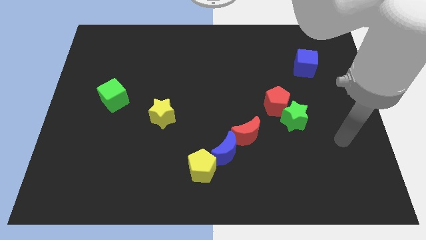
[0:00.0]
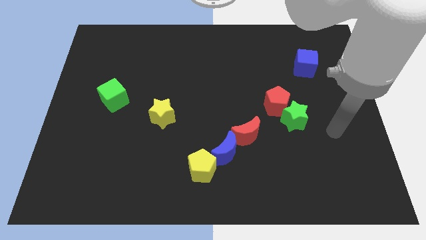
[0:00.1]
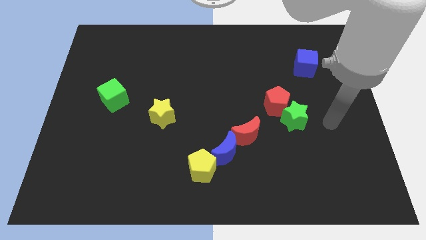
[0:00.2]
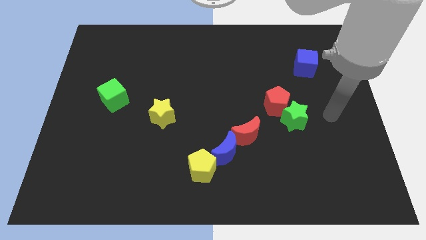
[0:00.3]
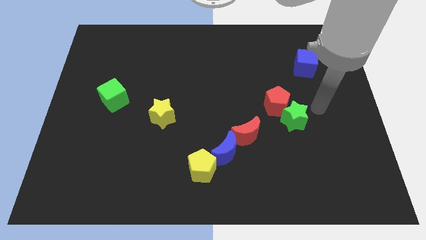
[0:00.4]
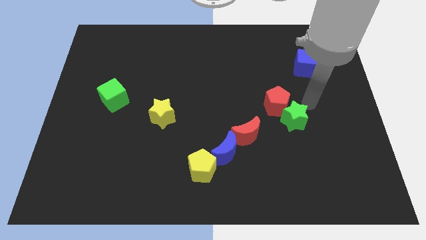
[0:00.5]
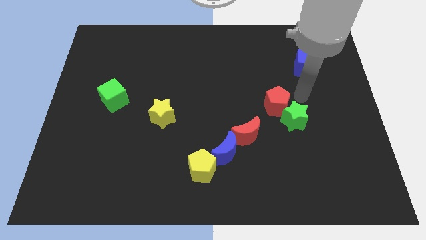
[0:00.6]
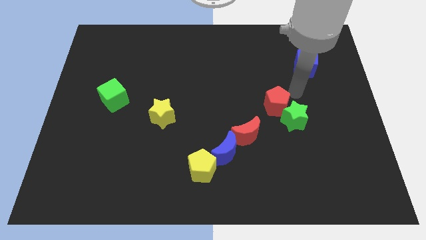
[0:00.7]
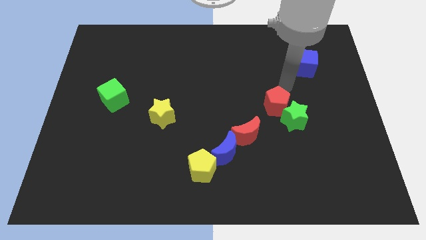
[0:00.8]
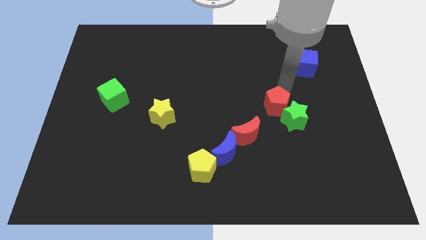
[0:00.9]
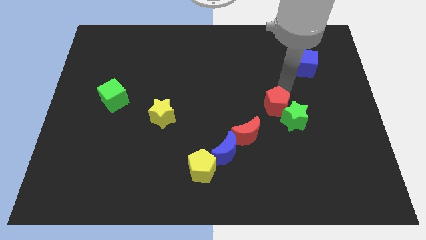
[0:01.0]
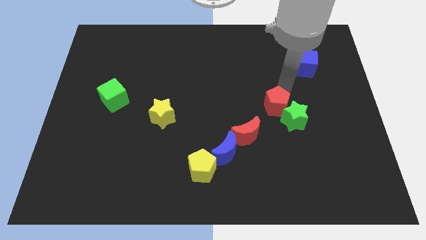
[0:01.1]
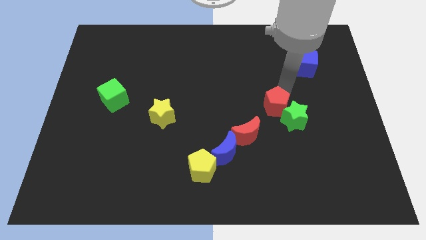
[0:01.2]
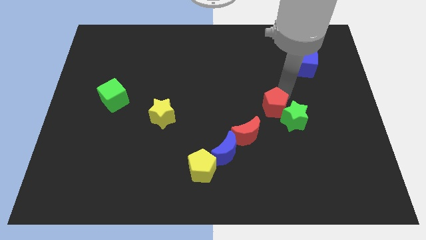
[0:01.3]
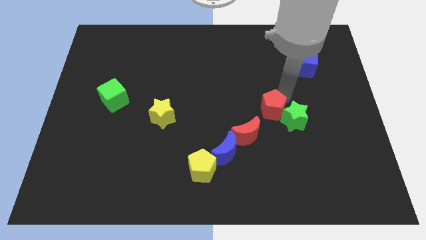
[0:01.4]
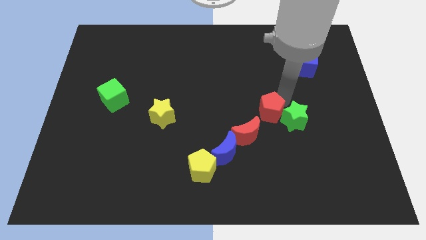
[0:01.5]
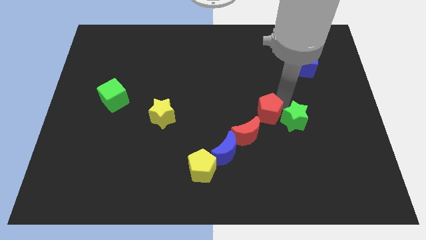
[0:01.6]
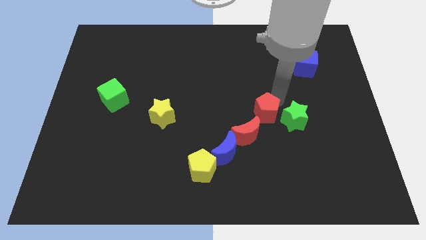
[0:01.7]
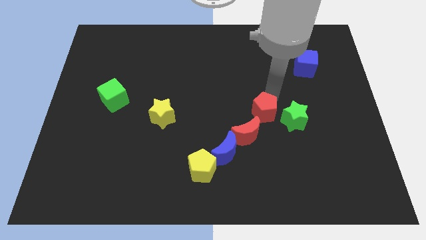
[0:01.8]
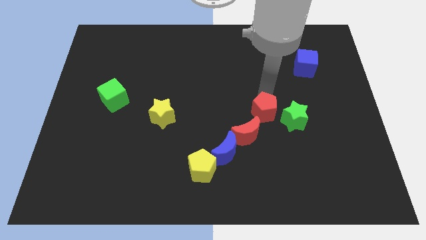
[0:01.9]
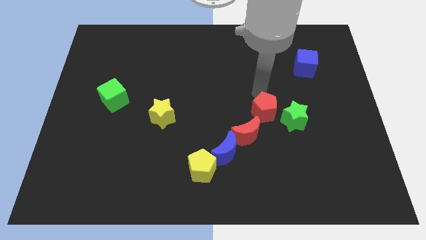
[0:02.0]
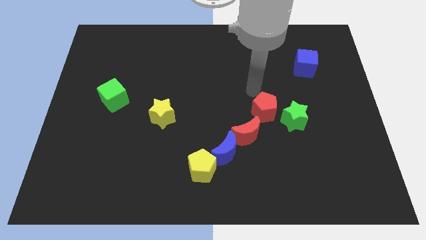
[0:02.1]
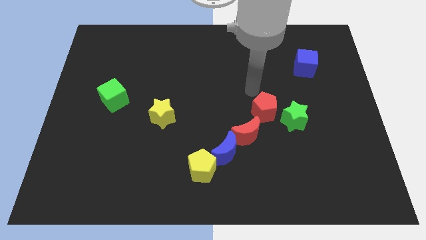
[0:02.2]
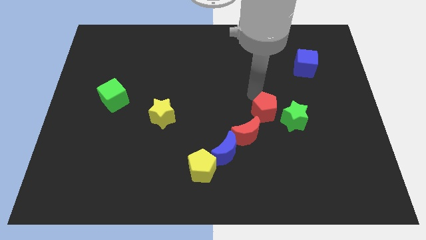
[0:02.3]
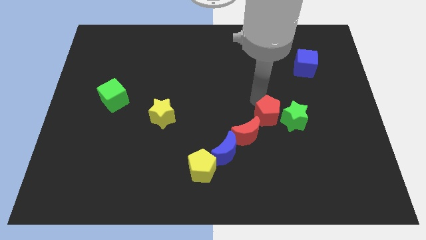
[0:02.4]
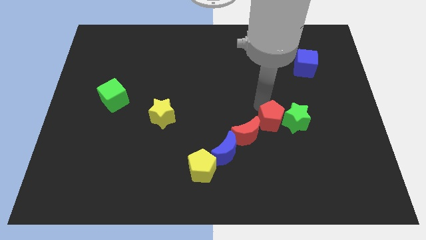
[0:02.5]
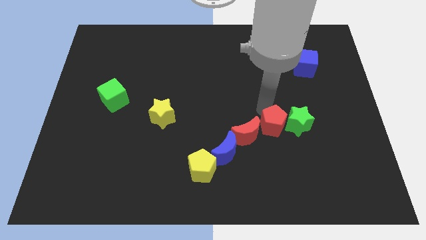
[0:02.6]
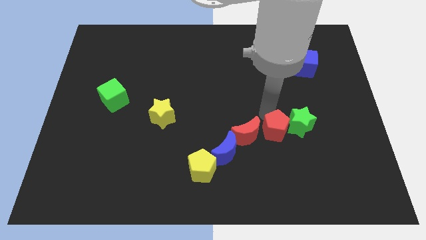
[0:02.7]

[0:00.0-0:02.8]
move the red pentagon a little bit downwards

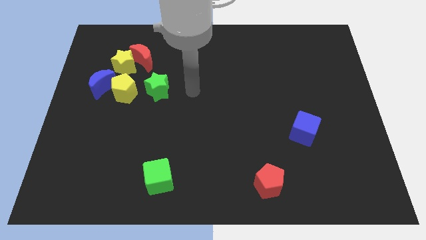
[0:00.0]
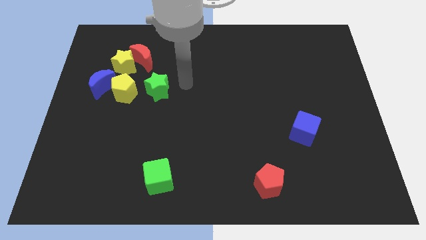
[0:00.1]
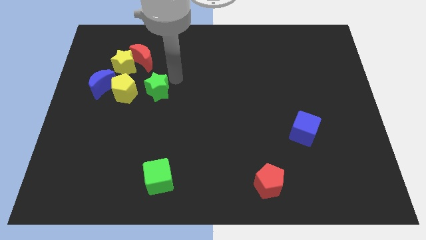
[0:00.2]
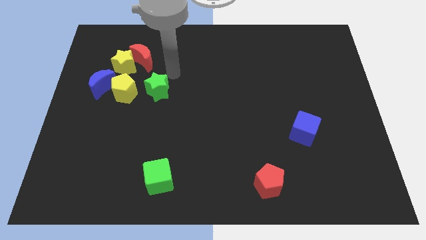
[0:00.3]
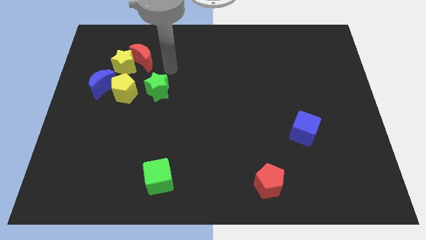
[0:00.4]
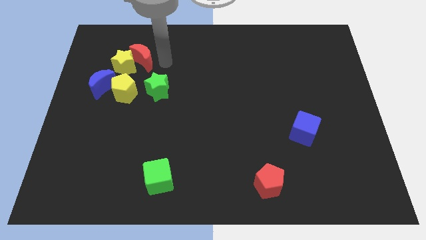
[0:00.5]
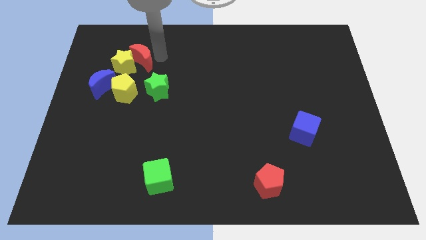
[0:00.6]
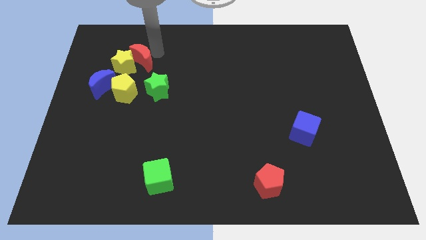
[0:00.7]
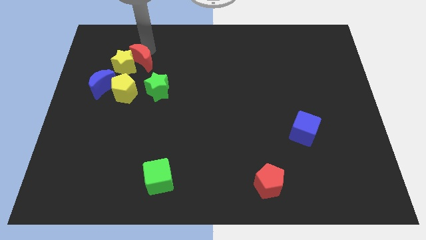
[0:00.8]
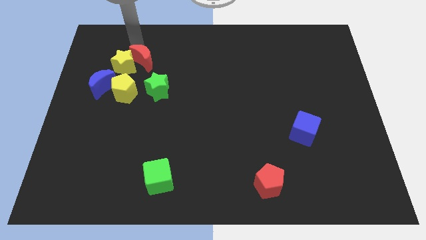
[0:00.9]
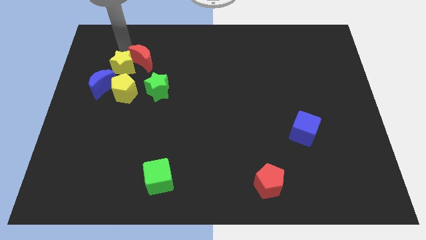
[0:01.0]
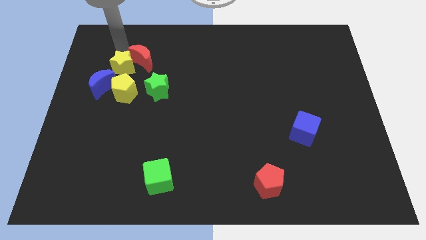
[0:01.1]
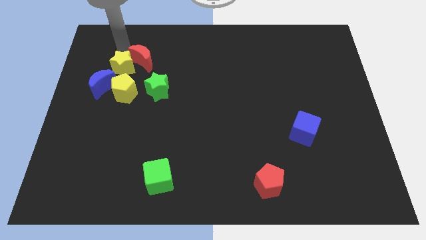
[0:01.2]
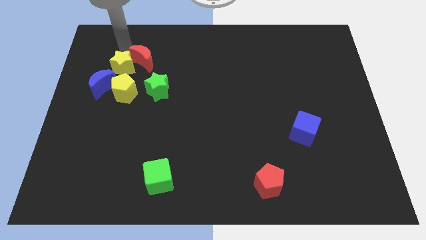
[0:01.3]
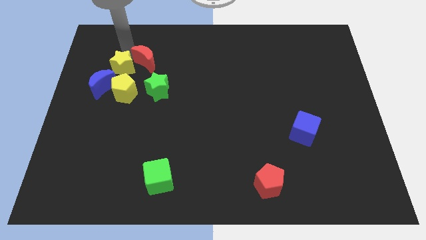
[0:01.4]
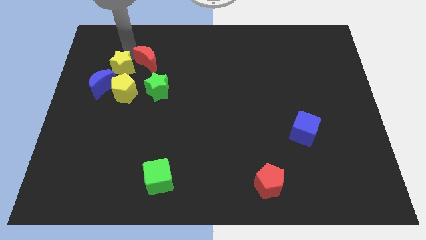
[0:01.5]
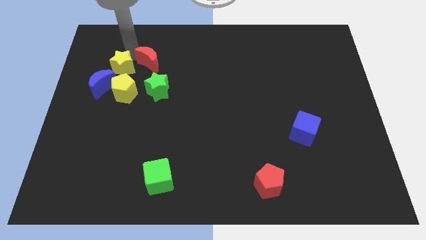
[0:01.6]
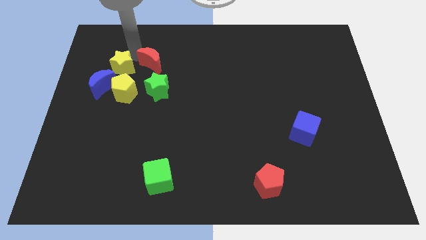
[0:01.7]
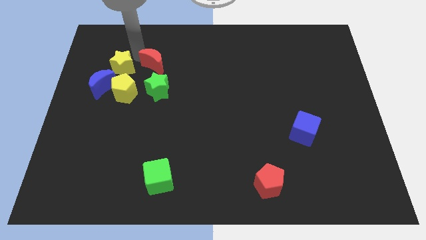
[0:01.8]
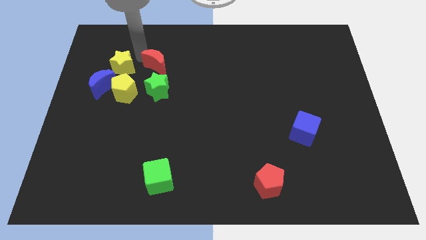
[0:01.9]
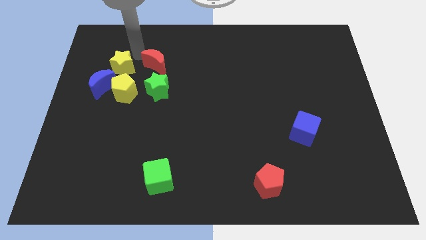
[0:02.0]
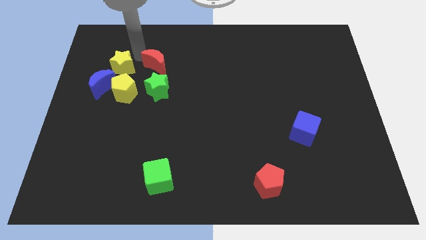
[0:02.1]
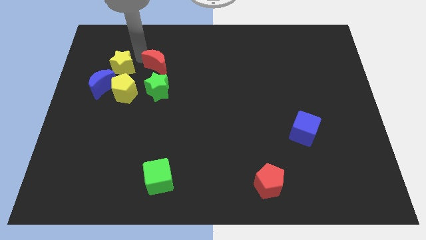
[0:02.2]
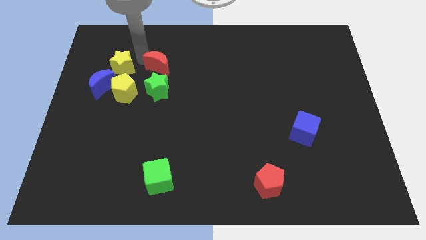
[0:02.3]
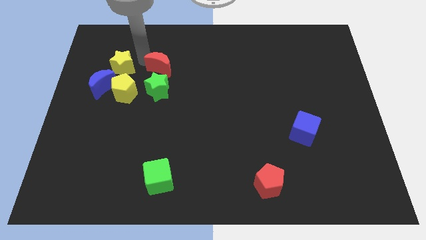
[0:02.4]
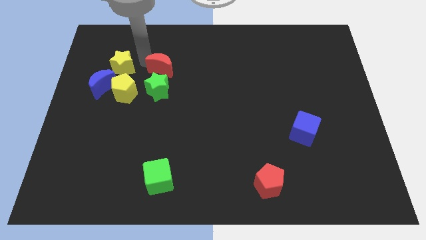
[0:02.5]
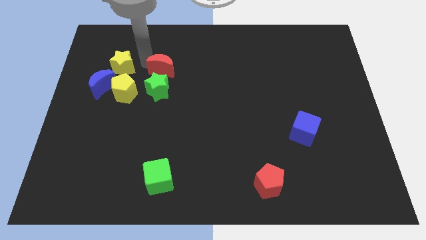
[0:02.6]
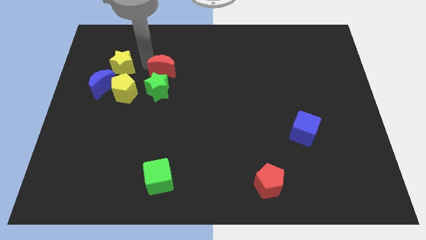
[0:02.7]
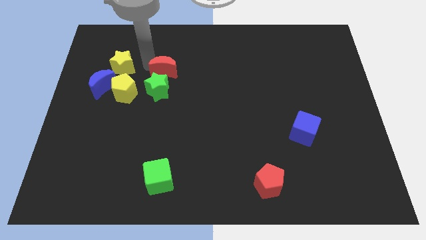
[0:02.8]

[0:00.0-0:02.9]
move the red moon slightly diagonally down and right

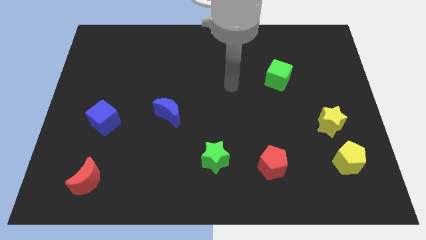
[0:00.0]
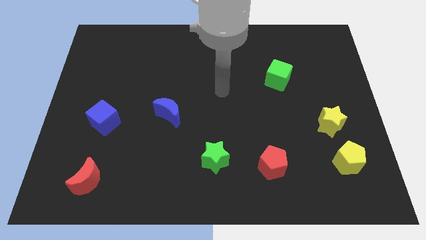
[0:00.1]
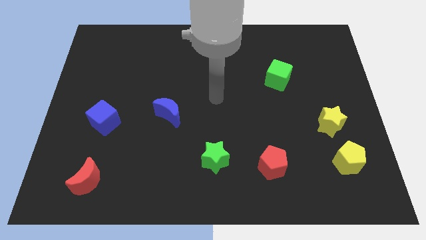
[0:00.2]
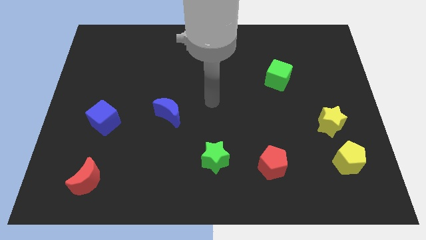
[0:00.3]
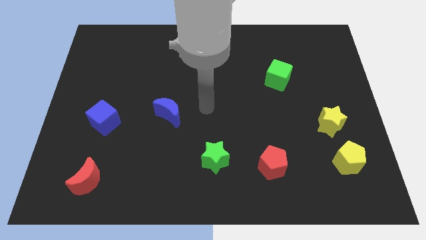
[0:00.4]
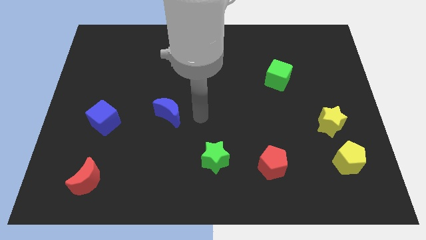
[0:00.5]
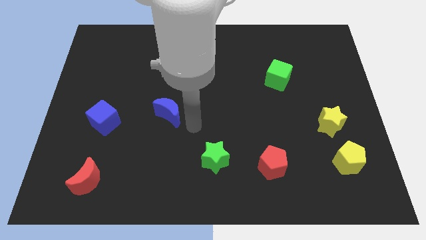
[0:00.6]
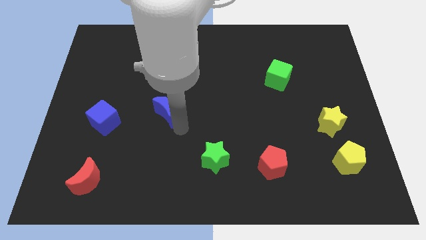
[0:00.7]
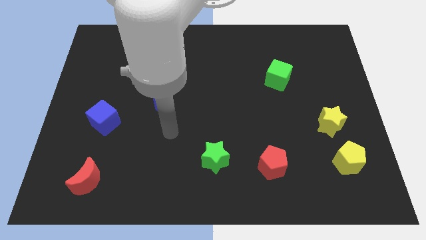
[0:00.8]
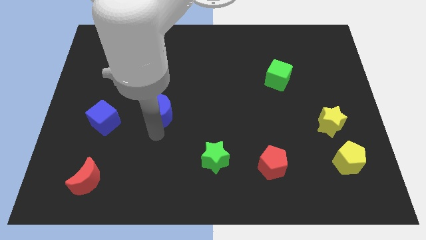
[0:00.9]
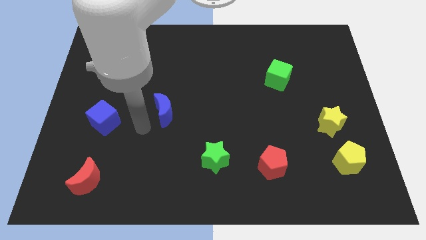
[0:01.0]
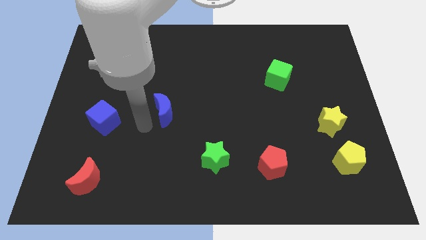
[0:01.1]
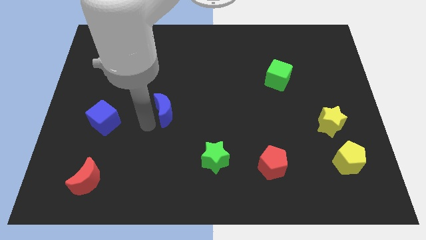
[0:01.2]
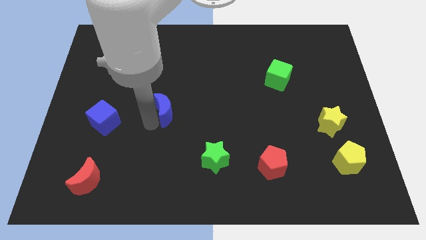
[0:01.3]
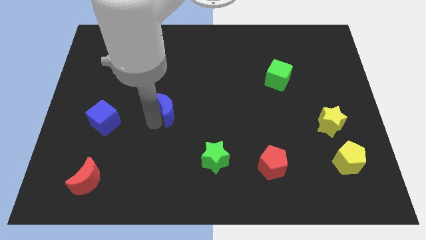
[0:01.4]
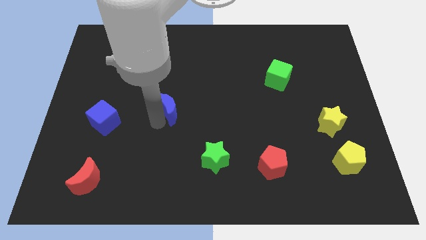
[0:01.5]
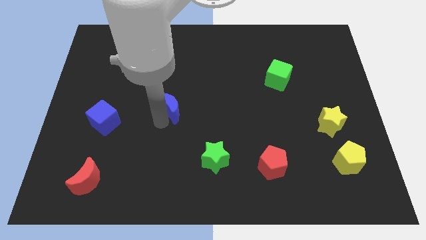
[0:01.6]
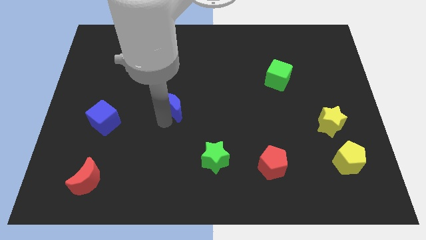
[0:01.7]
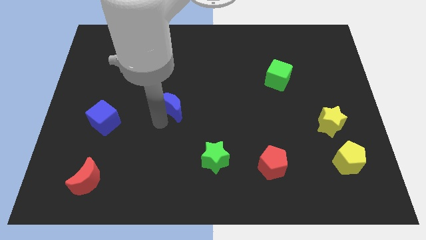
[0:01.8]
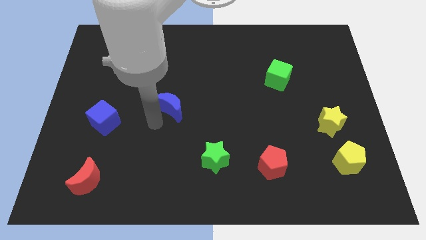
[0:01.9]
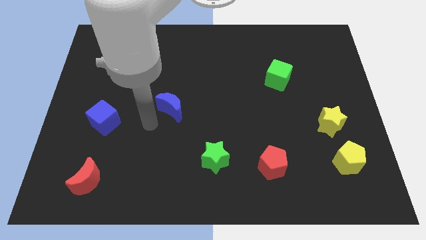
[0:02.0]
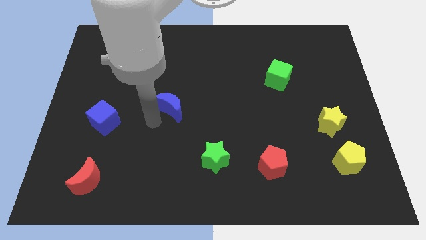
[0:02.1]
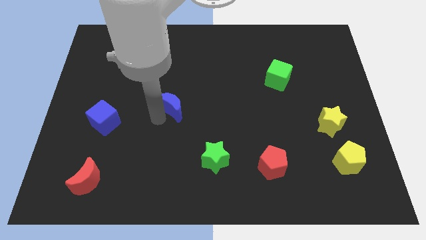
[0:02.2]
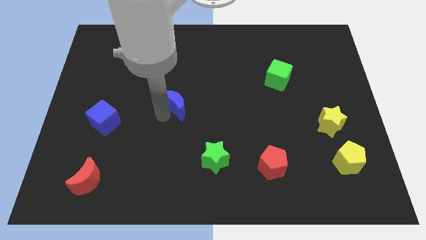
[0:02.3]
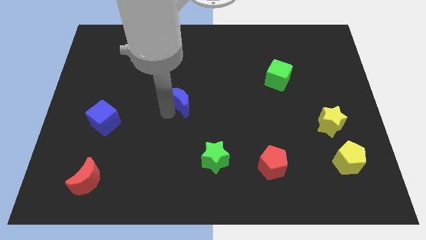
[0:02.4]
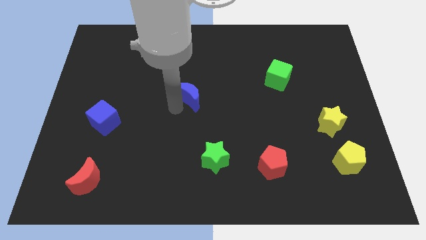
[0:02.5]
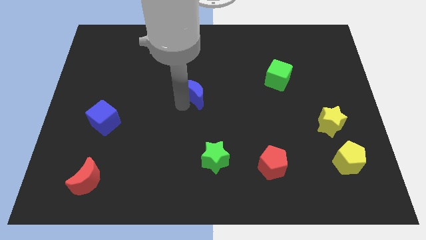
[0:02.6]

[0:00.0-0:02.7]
slightly push the blue moon upwards and then to the right
